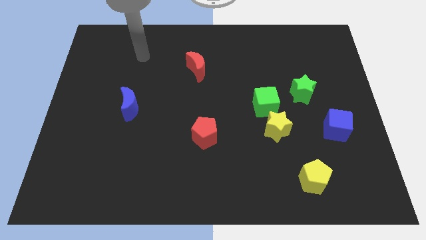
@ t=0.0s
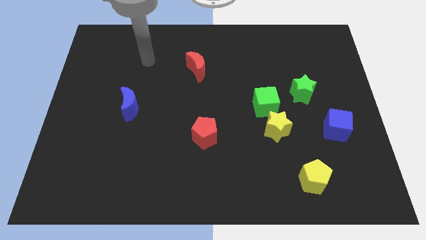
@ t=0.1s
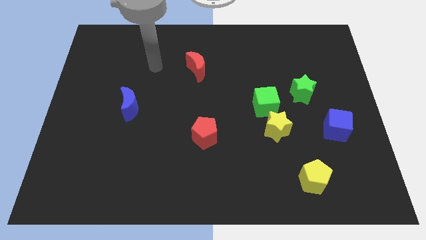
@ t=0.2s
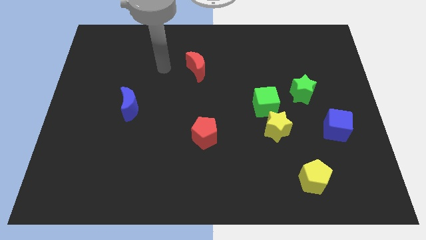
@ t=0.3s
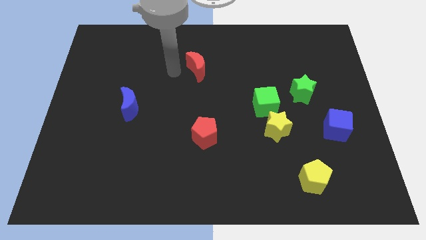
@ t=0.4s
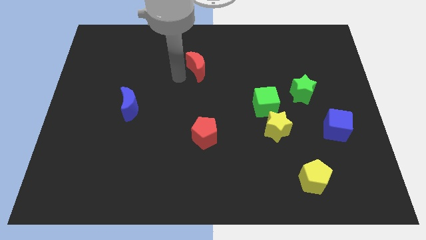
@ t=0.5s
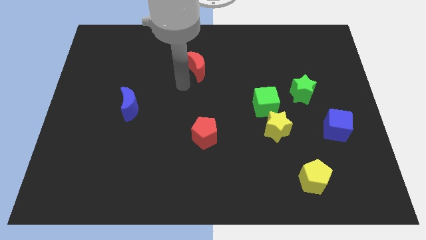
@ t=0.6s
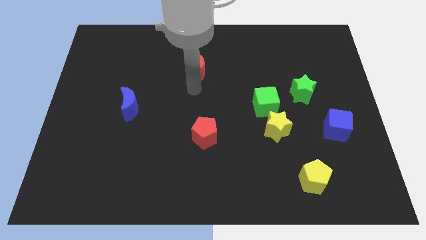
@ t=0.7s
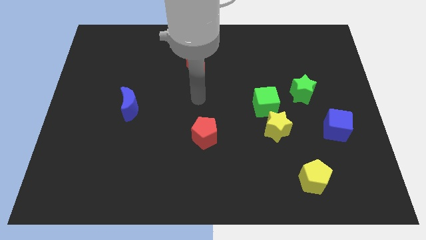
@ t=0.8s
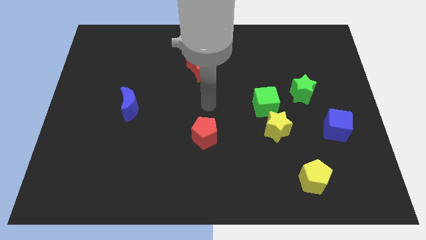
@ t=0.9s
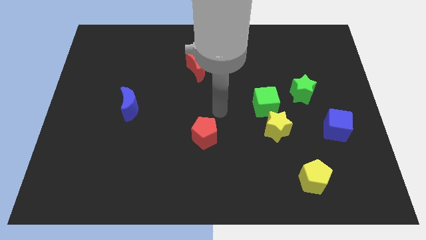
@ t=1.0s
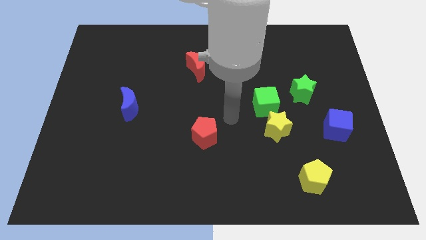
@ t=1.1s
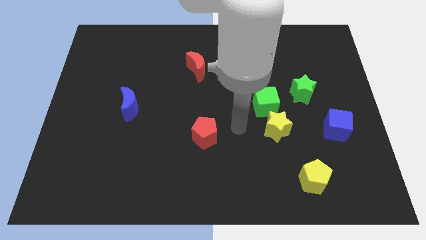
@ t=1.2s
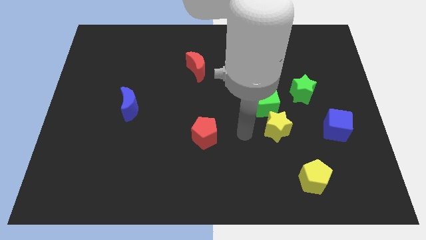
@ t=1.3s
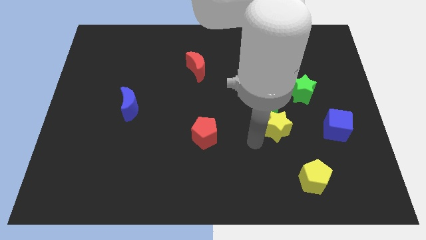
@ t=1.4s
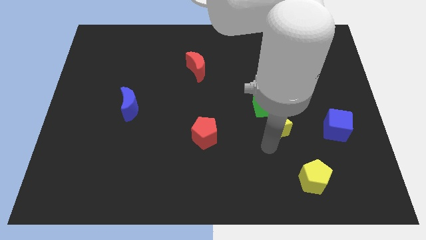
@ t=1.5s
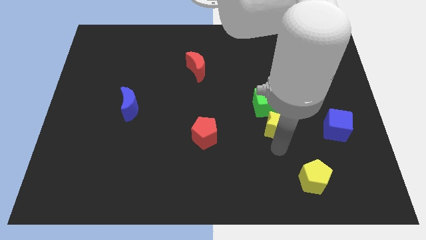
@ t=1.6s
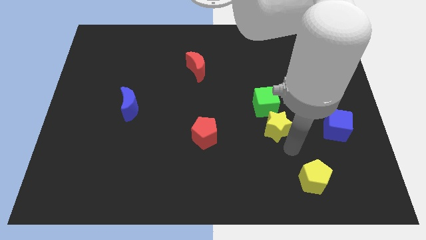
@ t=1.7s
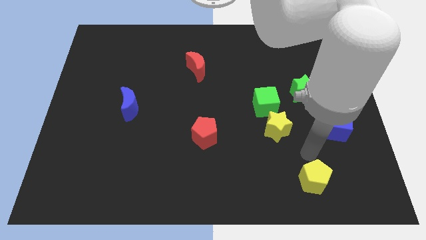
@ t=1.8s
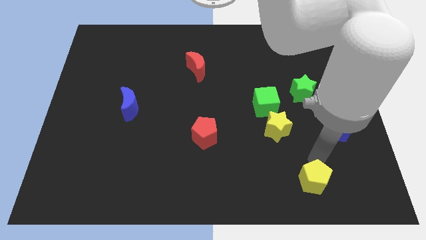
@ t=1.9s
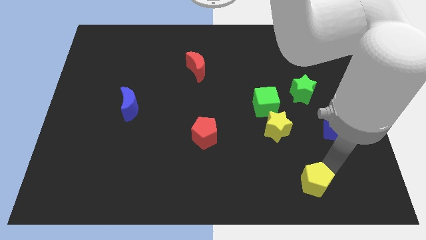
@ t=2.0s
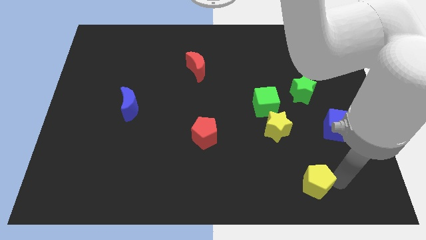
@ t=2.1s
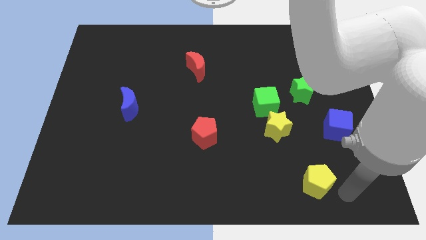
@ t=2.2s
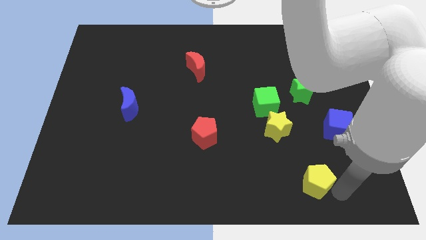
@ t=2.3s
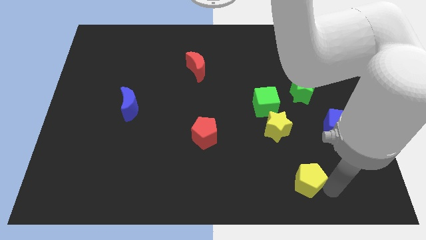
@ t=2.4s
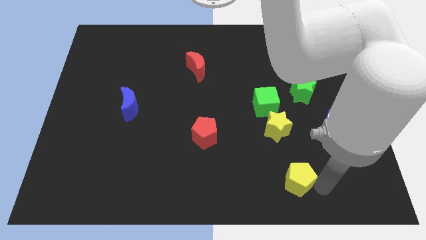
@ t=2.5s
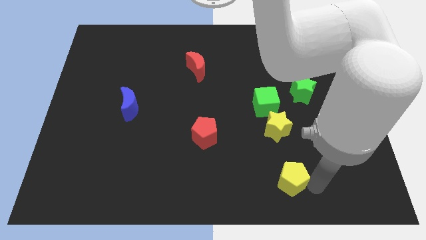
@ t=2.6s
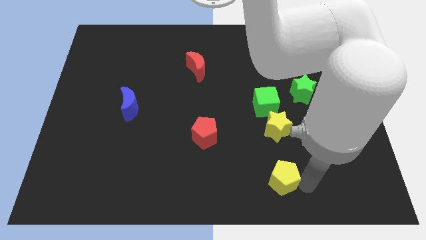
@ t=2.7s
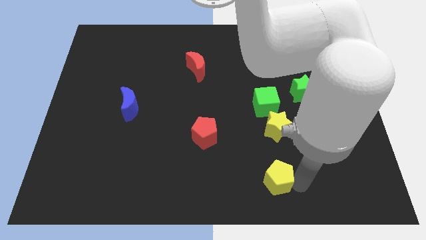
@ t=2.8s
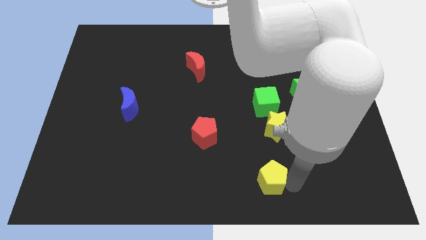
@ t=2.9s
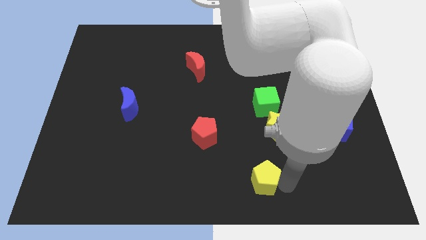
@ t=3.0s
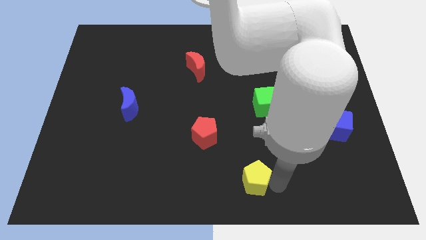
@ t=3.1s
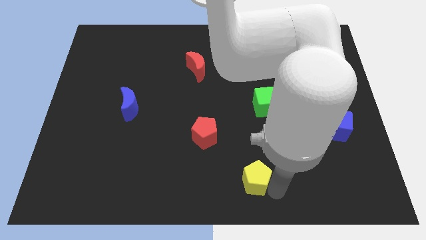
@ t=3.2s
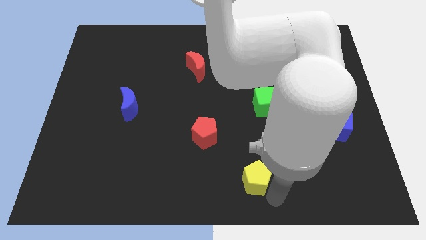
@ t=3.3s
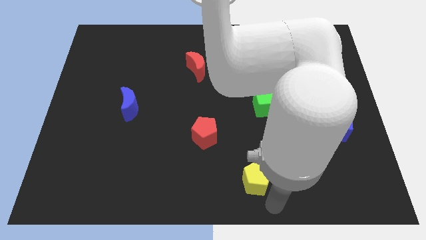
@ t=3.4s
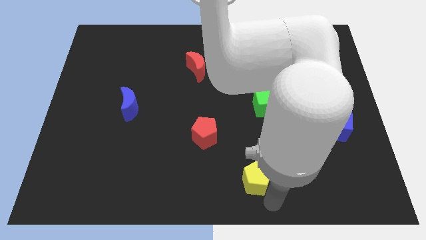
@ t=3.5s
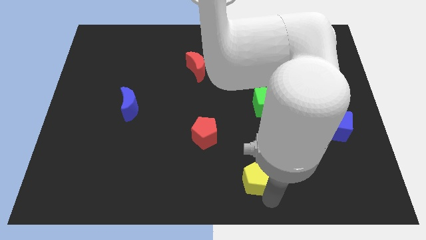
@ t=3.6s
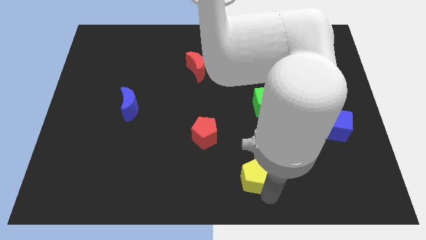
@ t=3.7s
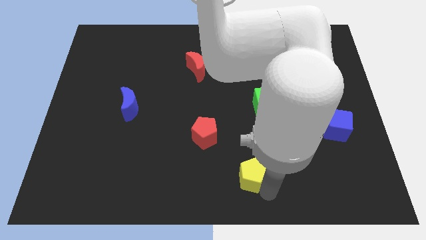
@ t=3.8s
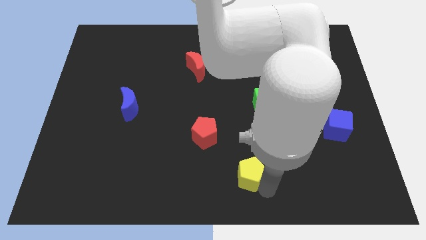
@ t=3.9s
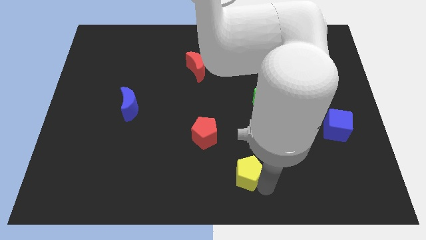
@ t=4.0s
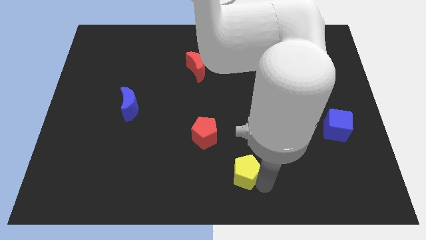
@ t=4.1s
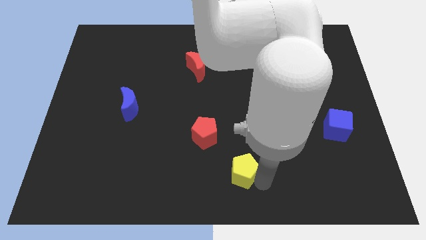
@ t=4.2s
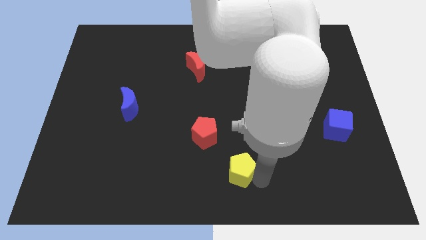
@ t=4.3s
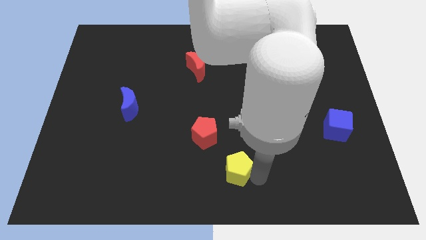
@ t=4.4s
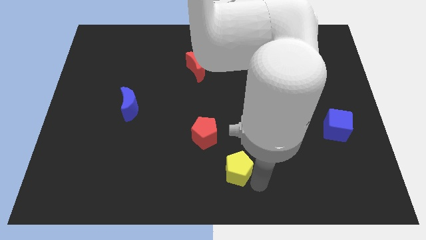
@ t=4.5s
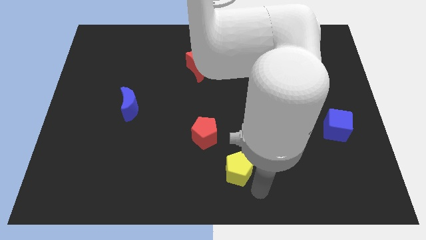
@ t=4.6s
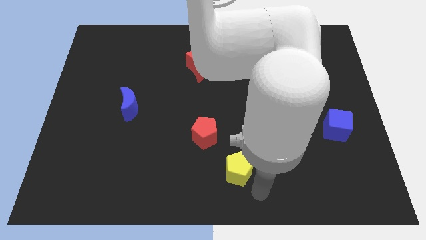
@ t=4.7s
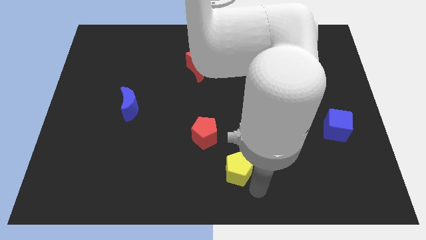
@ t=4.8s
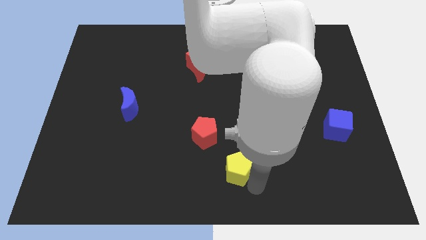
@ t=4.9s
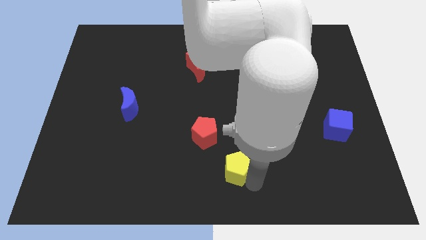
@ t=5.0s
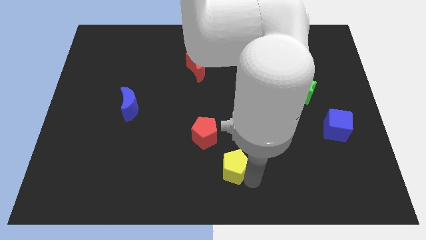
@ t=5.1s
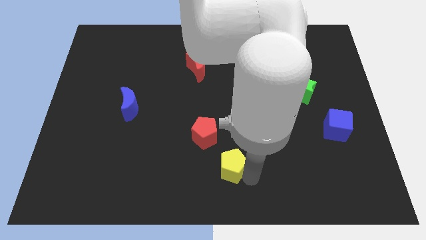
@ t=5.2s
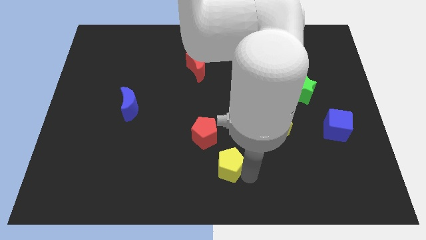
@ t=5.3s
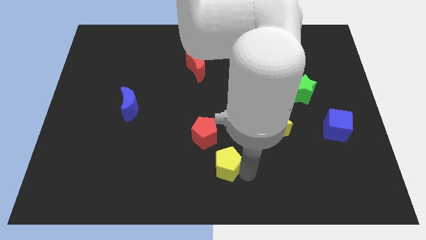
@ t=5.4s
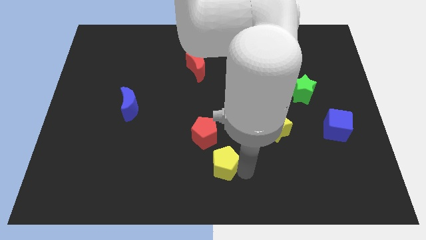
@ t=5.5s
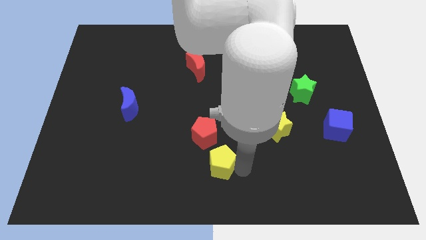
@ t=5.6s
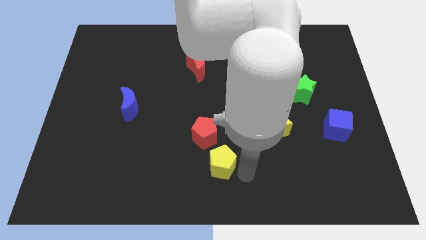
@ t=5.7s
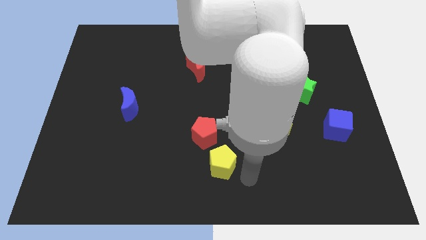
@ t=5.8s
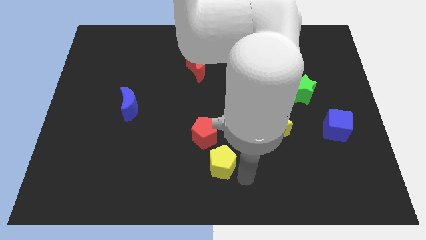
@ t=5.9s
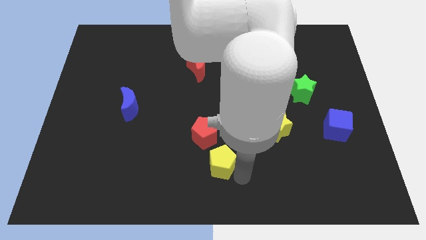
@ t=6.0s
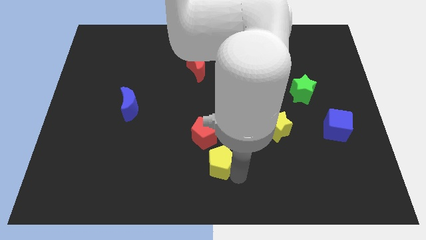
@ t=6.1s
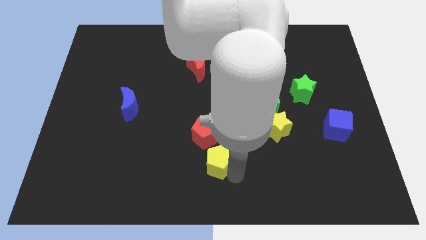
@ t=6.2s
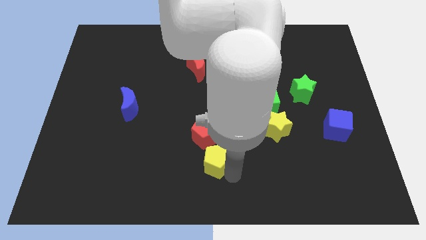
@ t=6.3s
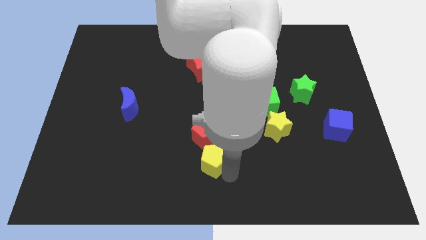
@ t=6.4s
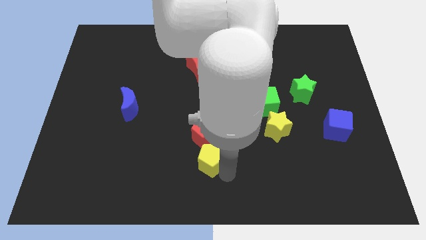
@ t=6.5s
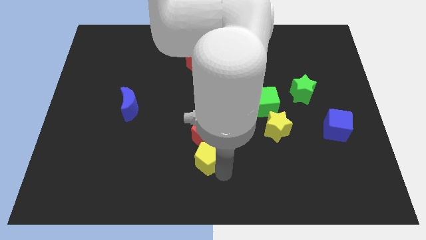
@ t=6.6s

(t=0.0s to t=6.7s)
move the yellow pentagon diagonally down and to the left of the red pentagon
